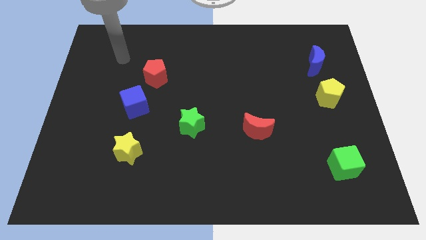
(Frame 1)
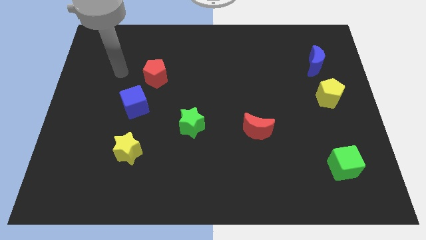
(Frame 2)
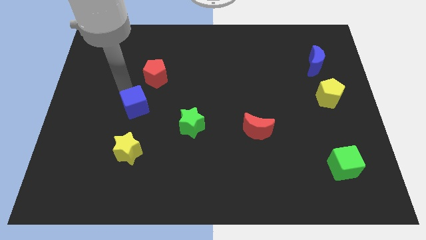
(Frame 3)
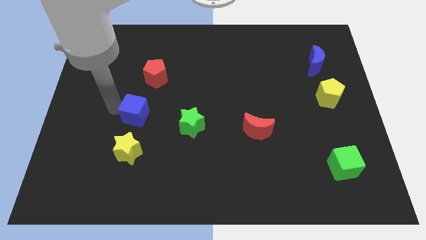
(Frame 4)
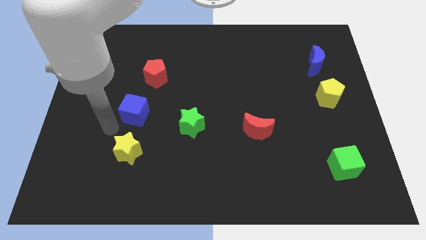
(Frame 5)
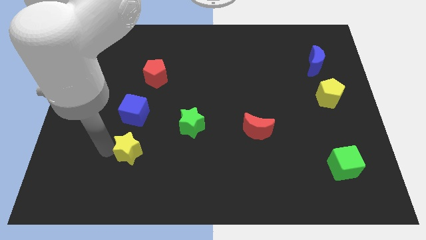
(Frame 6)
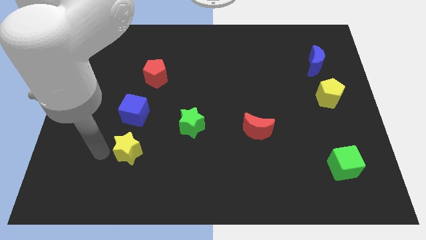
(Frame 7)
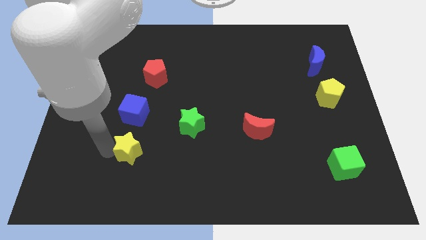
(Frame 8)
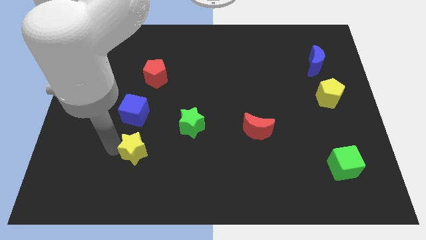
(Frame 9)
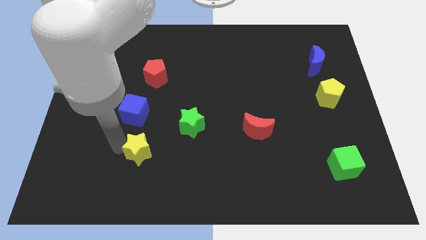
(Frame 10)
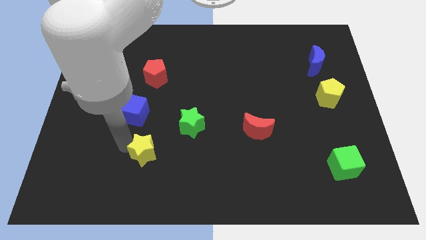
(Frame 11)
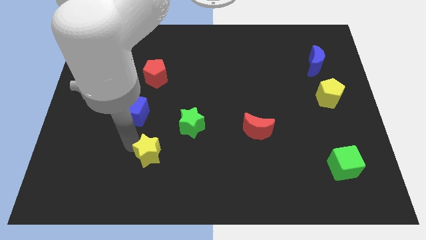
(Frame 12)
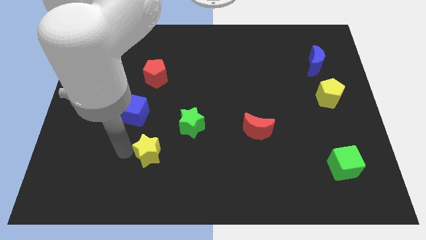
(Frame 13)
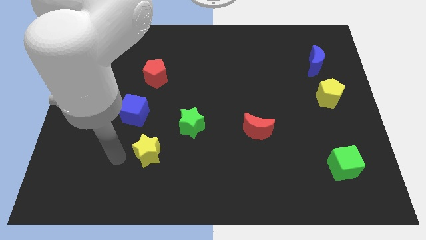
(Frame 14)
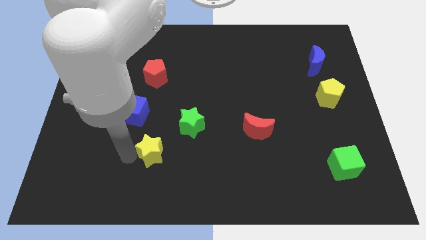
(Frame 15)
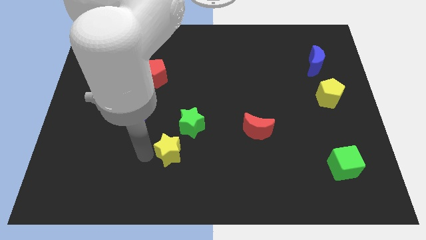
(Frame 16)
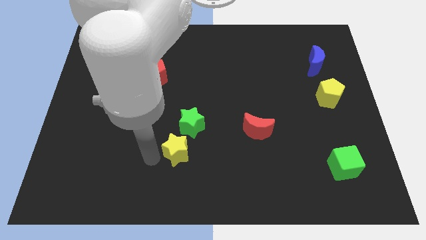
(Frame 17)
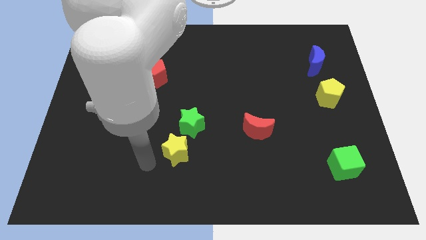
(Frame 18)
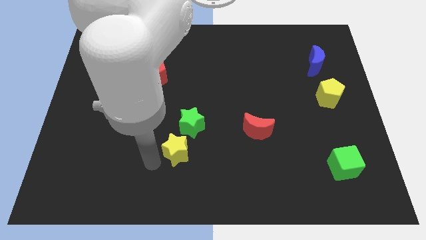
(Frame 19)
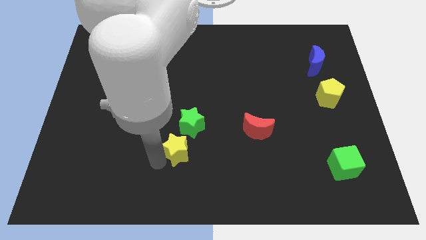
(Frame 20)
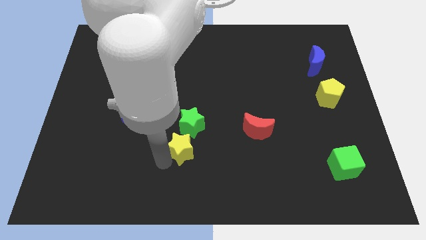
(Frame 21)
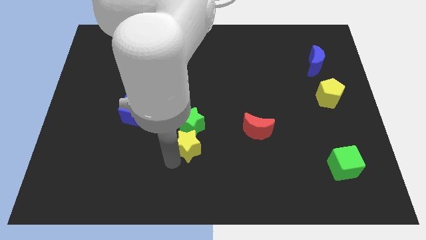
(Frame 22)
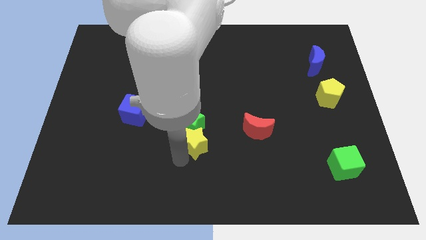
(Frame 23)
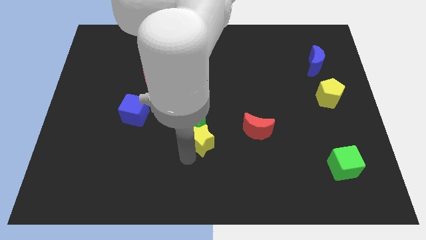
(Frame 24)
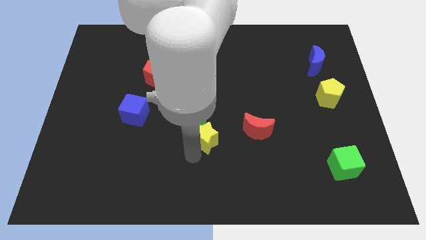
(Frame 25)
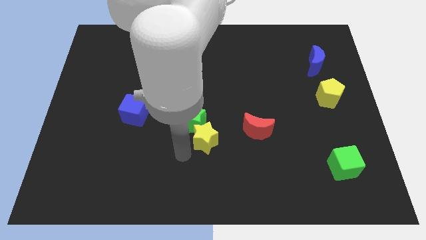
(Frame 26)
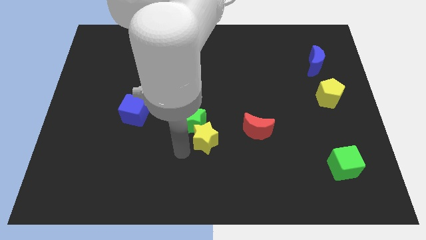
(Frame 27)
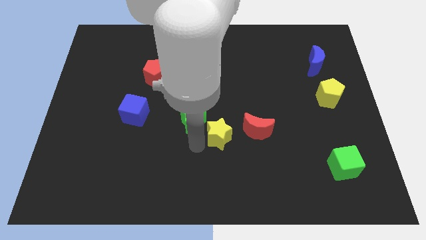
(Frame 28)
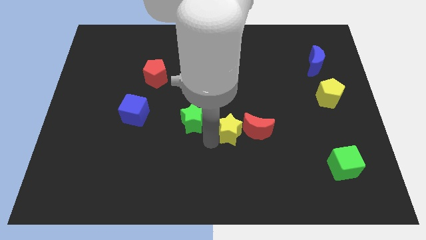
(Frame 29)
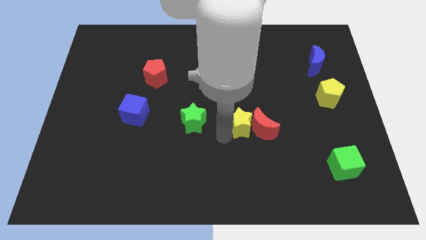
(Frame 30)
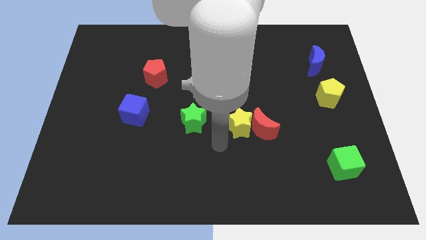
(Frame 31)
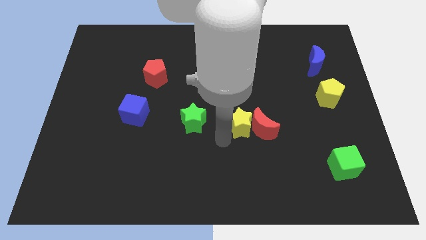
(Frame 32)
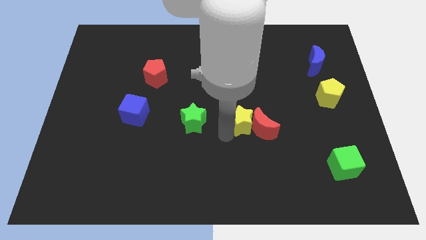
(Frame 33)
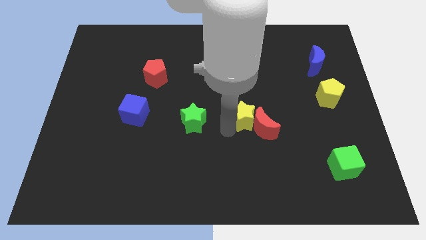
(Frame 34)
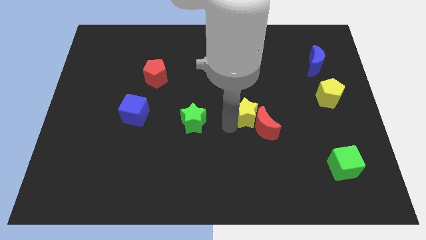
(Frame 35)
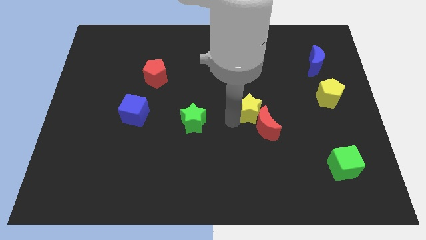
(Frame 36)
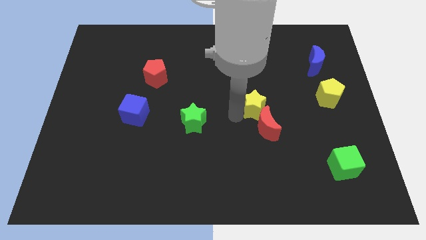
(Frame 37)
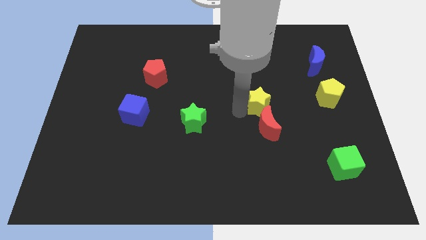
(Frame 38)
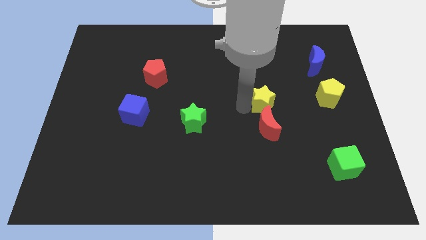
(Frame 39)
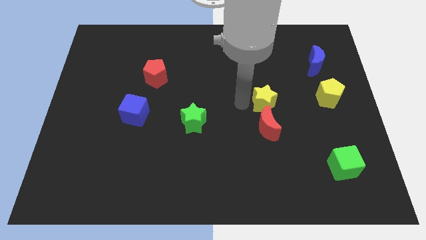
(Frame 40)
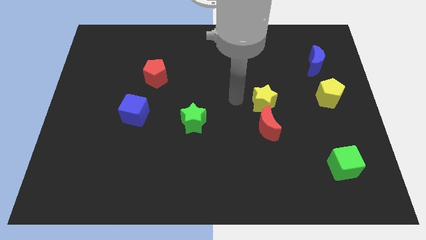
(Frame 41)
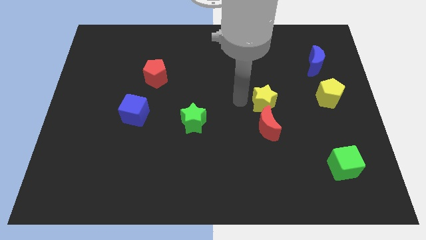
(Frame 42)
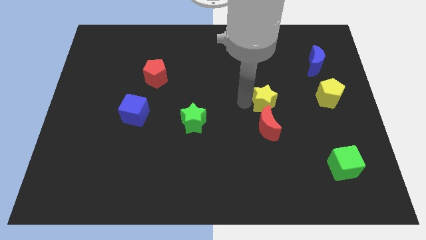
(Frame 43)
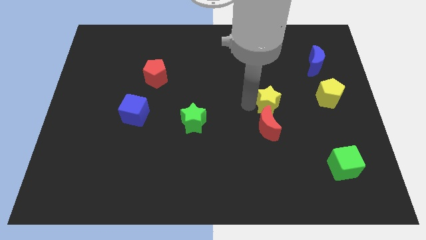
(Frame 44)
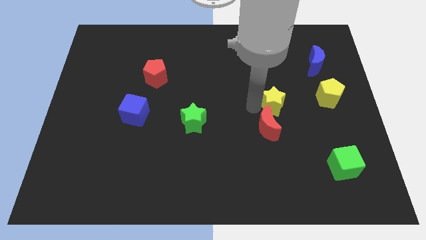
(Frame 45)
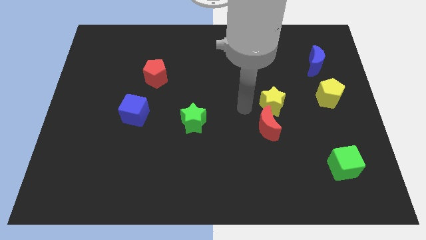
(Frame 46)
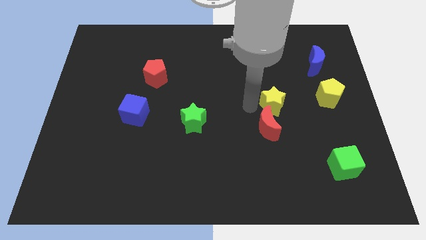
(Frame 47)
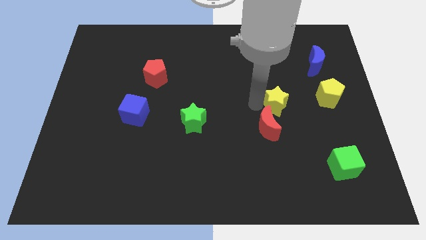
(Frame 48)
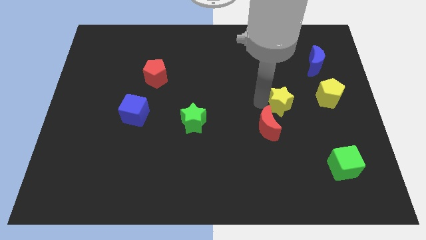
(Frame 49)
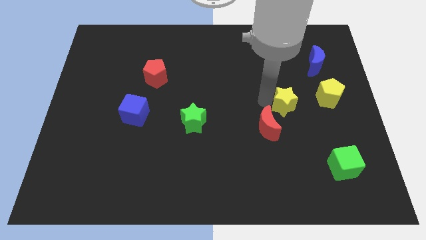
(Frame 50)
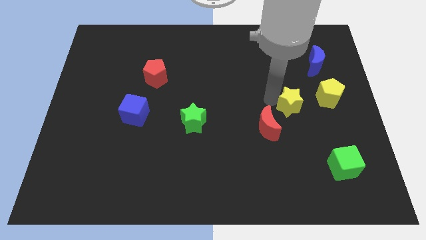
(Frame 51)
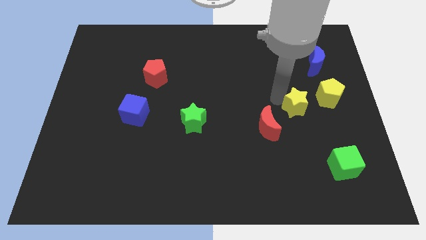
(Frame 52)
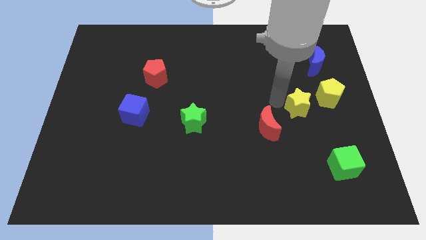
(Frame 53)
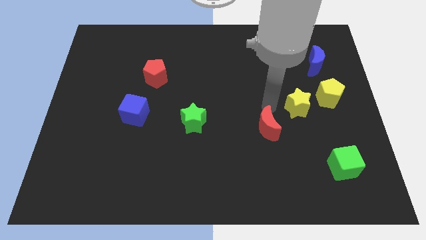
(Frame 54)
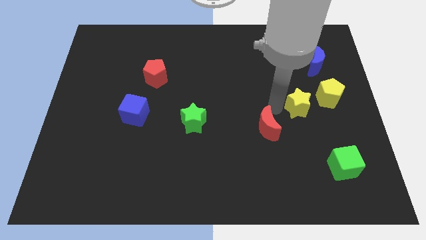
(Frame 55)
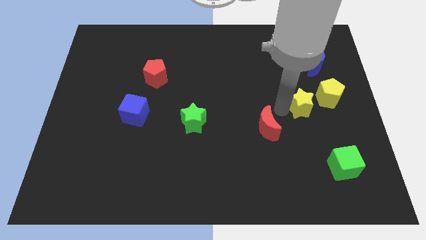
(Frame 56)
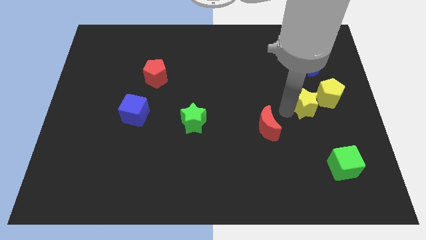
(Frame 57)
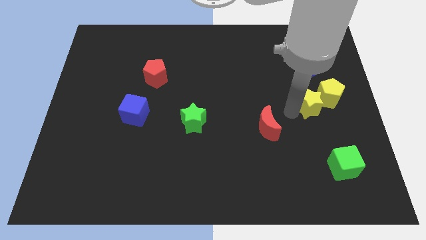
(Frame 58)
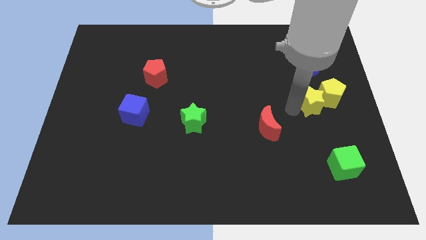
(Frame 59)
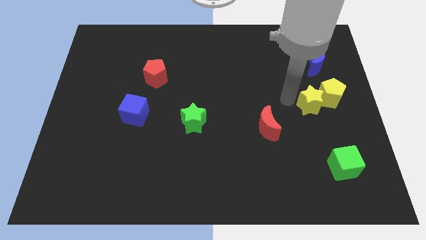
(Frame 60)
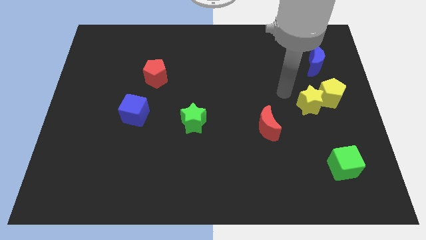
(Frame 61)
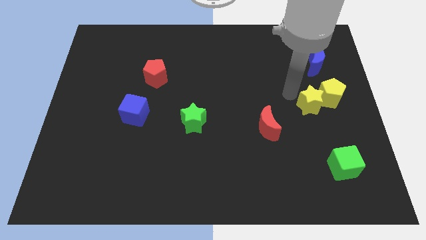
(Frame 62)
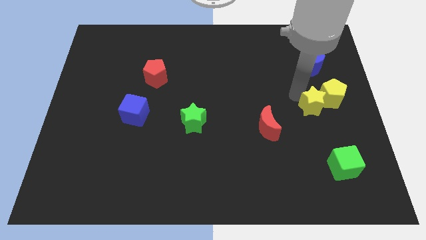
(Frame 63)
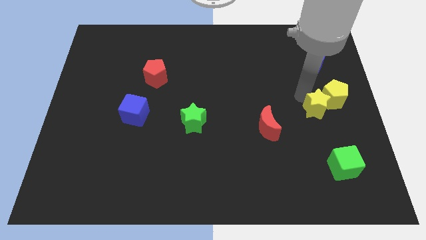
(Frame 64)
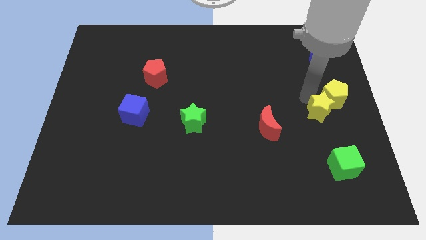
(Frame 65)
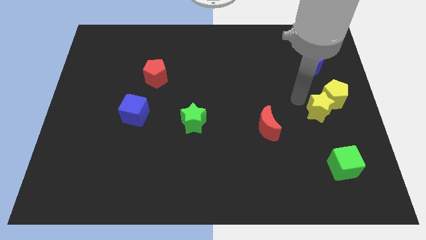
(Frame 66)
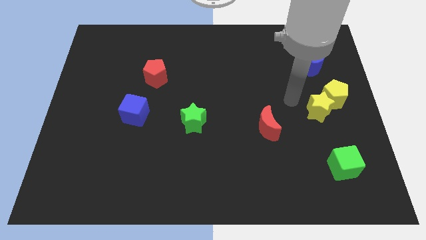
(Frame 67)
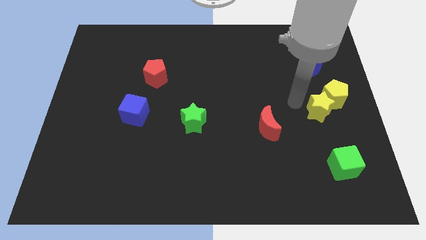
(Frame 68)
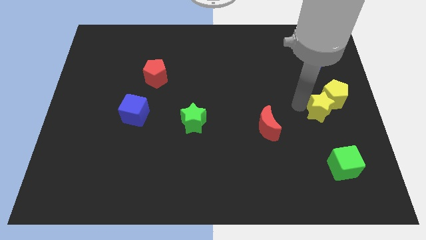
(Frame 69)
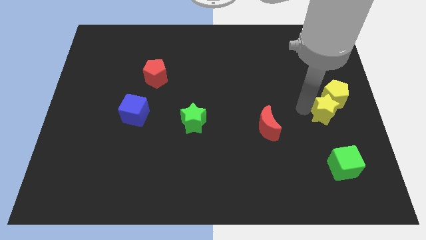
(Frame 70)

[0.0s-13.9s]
put the yellow star to the center right

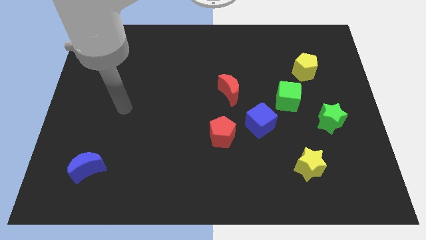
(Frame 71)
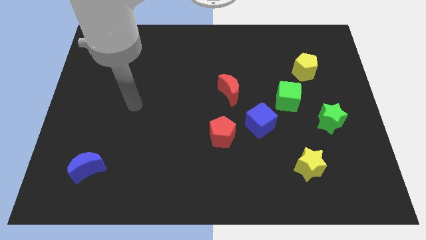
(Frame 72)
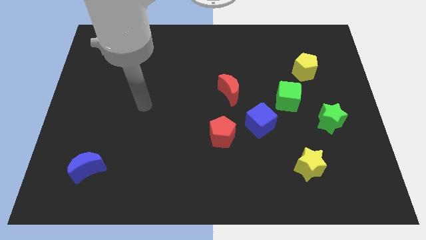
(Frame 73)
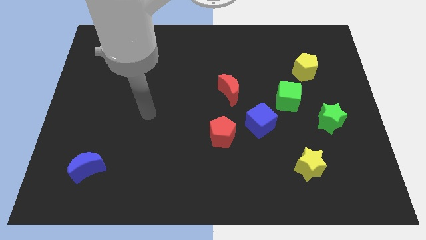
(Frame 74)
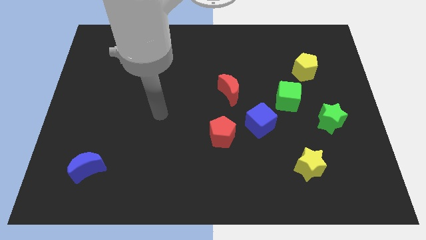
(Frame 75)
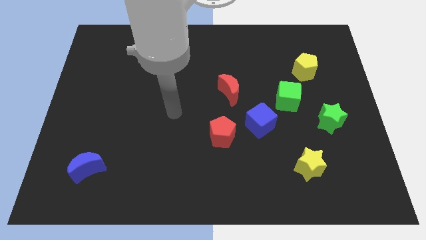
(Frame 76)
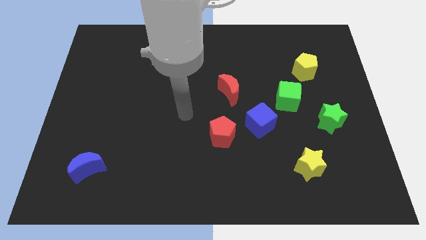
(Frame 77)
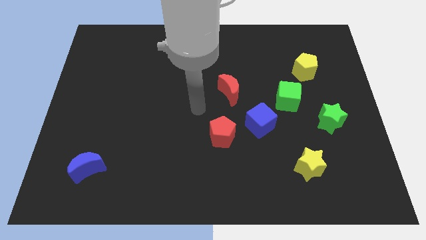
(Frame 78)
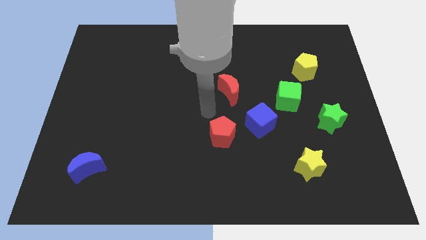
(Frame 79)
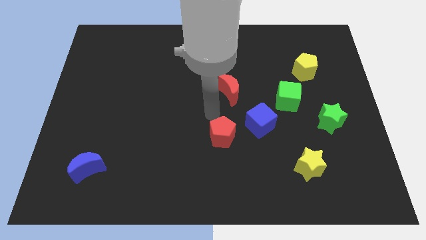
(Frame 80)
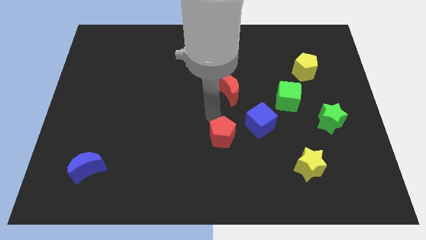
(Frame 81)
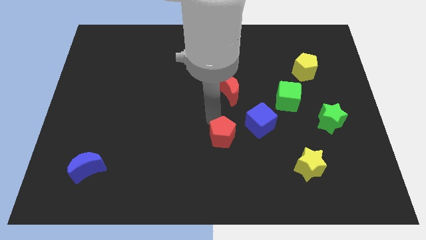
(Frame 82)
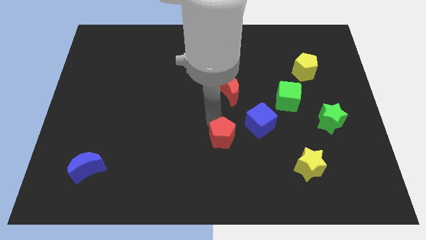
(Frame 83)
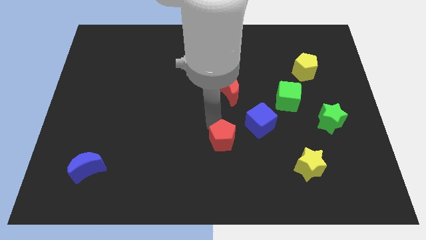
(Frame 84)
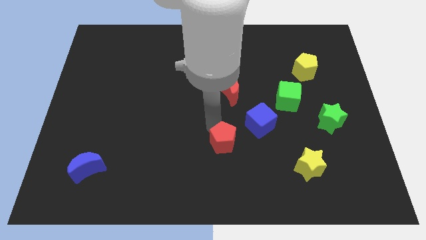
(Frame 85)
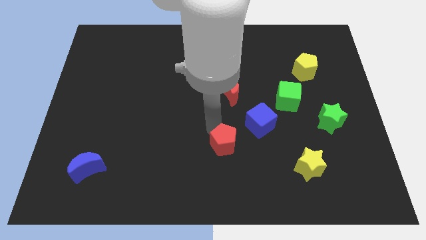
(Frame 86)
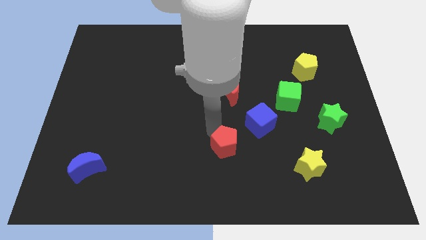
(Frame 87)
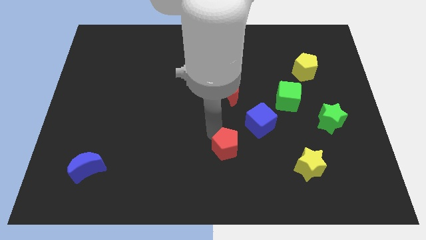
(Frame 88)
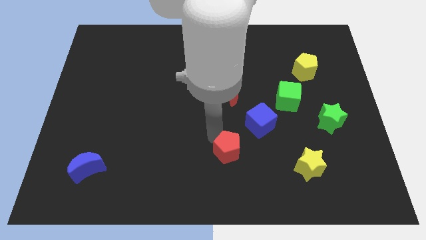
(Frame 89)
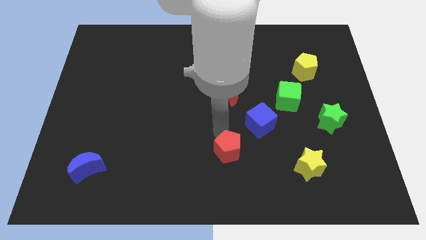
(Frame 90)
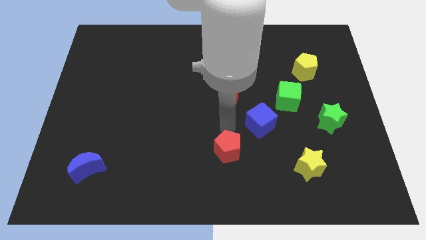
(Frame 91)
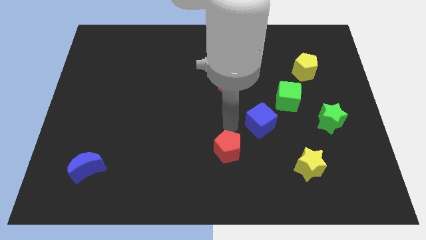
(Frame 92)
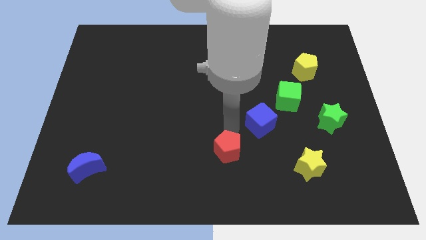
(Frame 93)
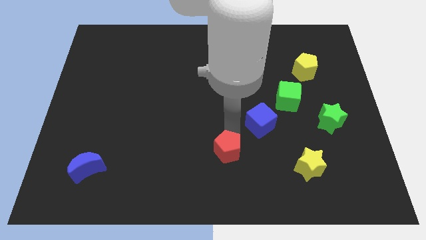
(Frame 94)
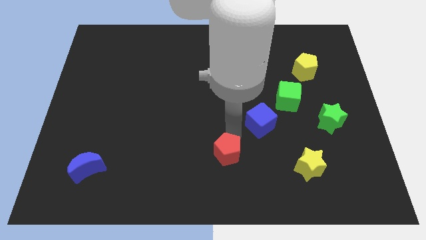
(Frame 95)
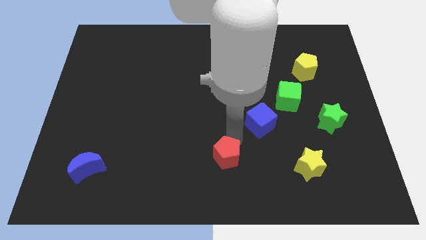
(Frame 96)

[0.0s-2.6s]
put the red pentagon to the bottom
